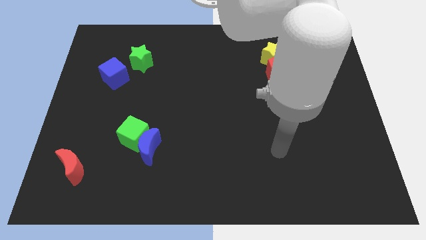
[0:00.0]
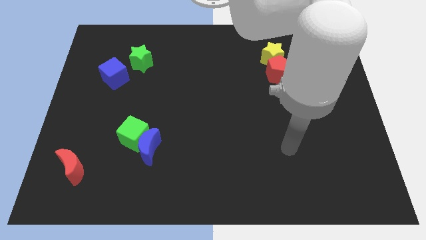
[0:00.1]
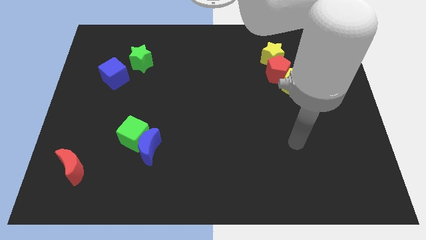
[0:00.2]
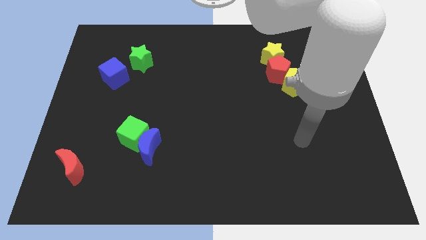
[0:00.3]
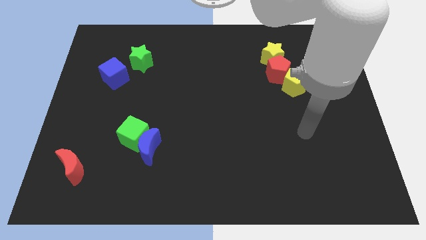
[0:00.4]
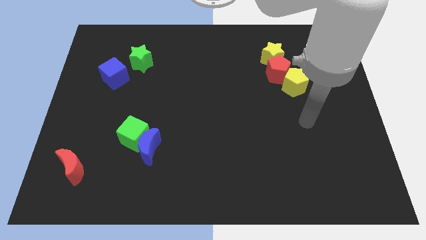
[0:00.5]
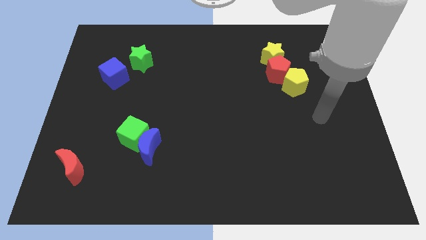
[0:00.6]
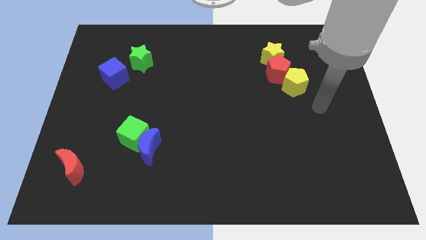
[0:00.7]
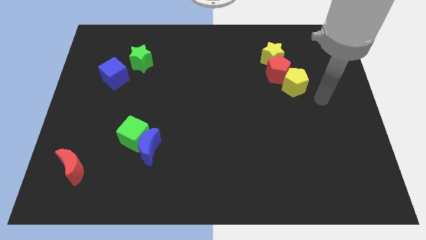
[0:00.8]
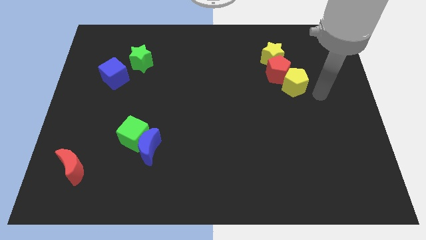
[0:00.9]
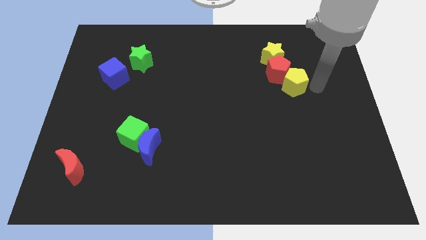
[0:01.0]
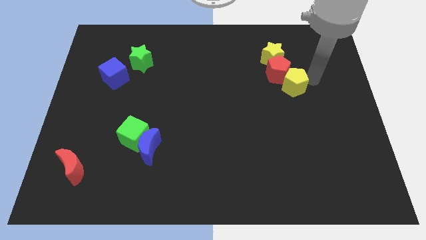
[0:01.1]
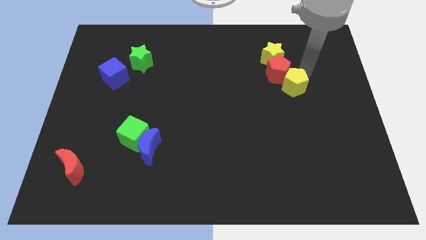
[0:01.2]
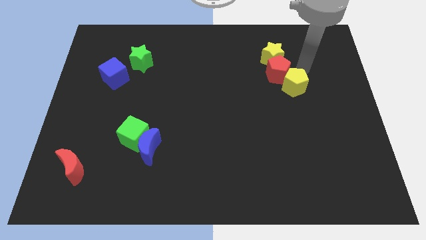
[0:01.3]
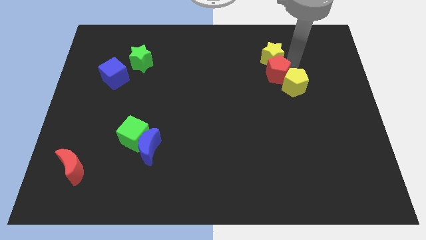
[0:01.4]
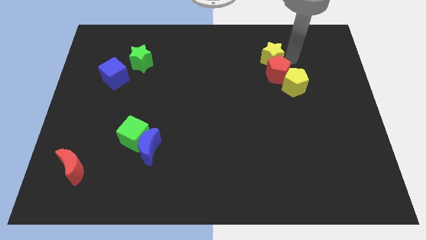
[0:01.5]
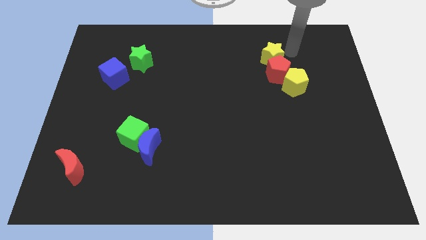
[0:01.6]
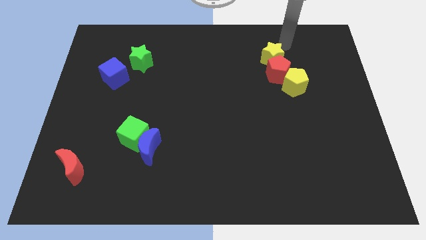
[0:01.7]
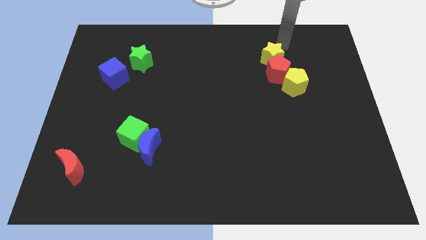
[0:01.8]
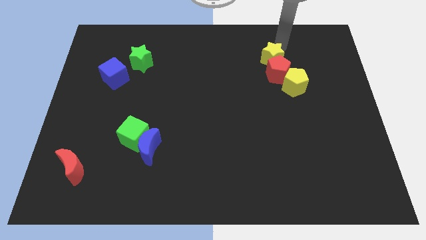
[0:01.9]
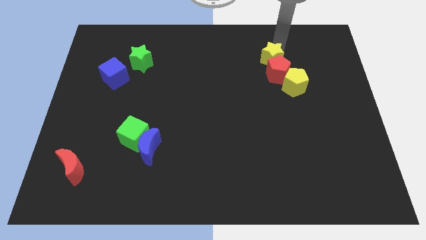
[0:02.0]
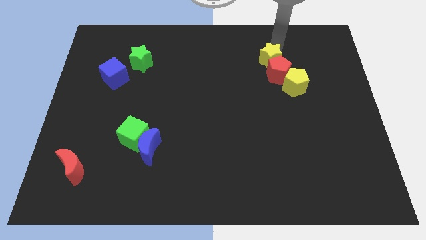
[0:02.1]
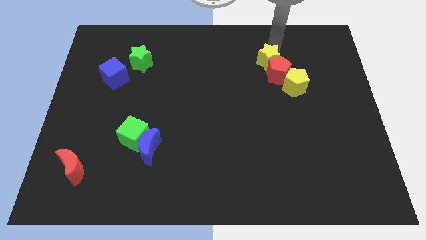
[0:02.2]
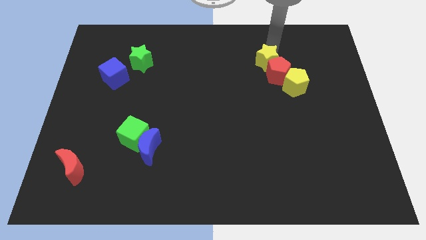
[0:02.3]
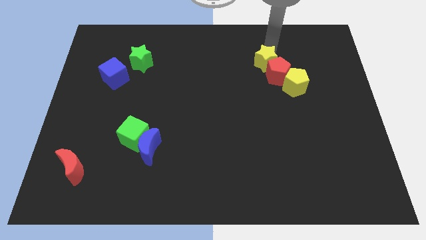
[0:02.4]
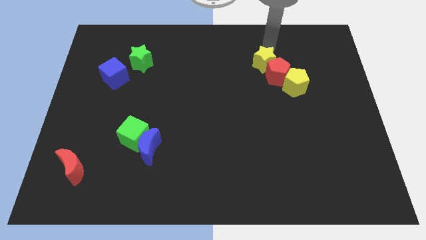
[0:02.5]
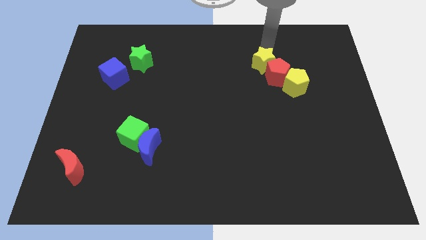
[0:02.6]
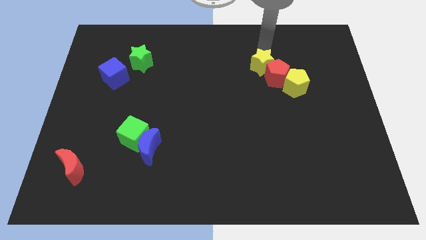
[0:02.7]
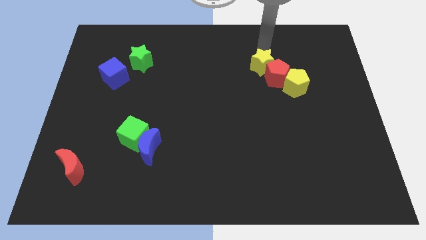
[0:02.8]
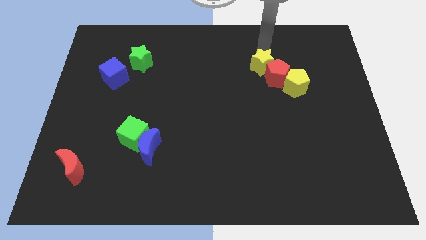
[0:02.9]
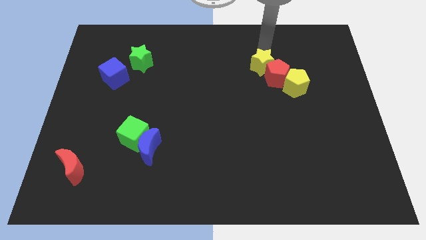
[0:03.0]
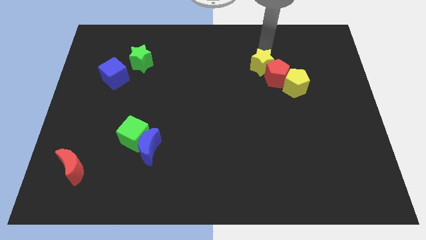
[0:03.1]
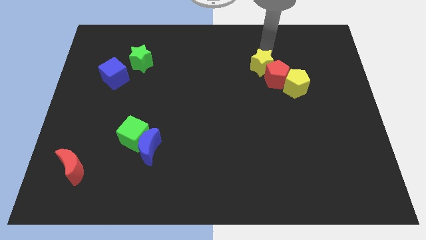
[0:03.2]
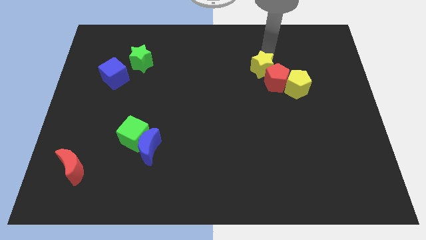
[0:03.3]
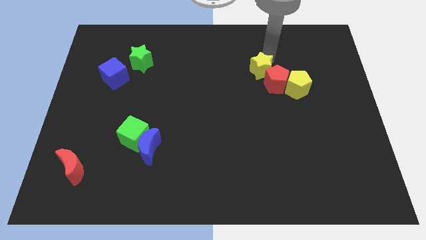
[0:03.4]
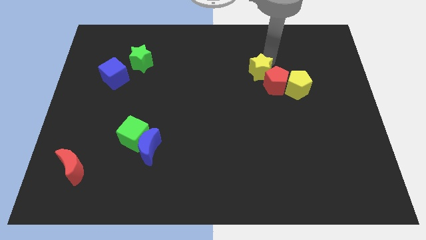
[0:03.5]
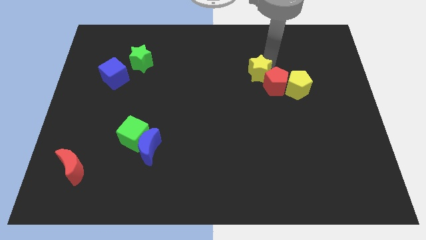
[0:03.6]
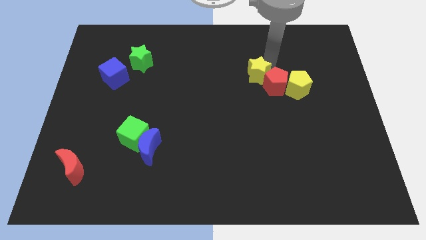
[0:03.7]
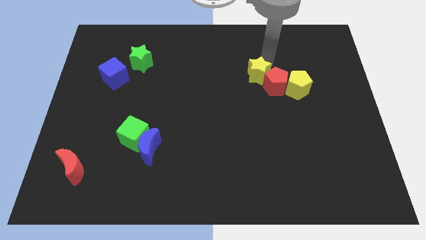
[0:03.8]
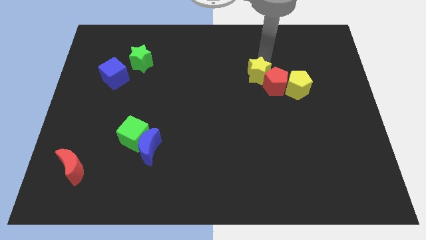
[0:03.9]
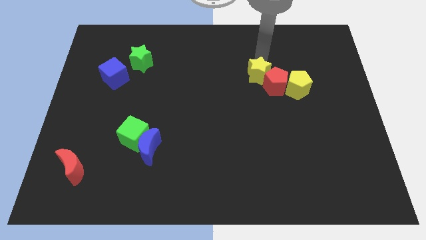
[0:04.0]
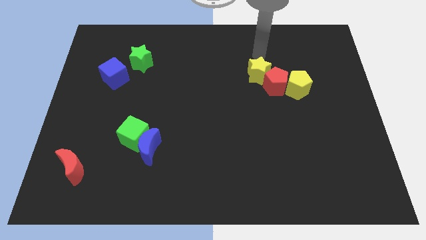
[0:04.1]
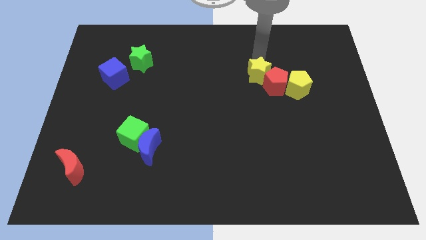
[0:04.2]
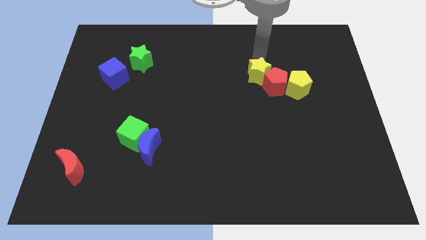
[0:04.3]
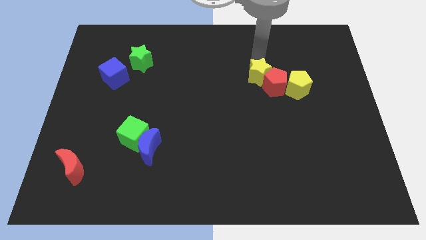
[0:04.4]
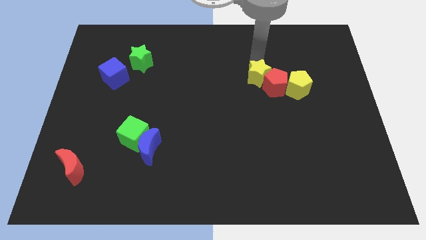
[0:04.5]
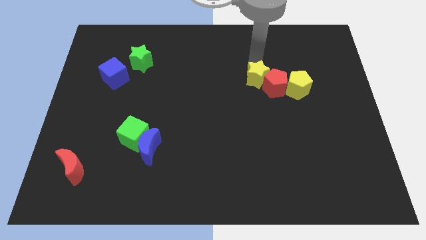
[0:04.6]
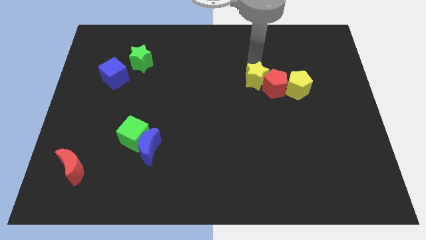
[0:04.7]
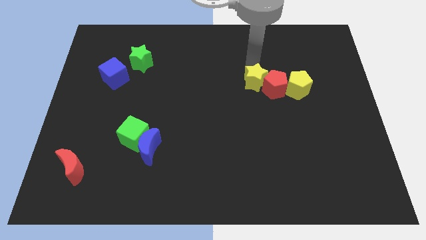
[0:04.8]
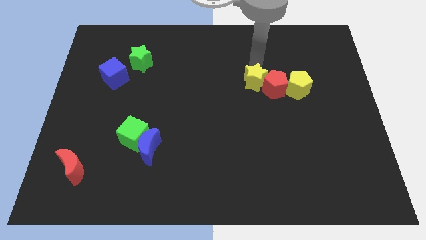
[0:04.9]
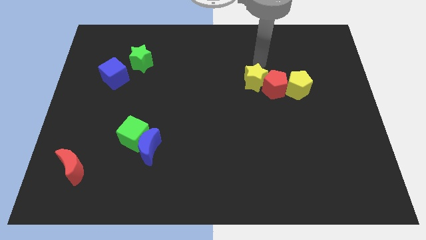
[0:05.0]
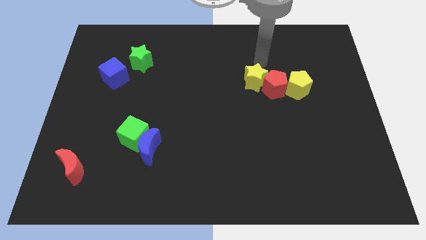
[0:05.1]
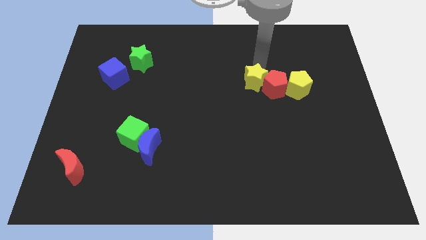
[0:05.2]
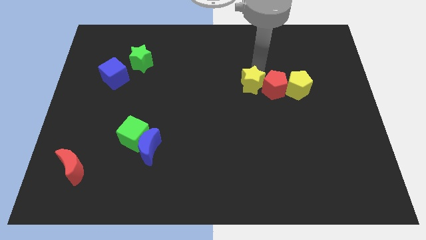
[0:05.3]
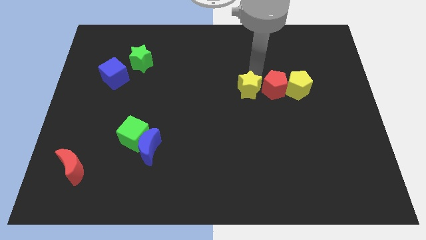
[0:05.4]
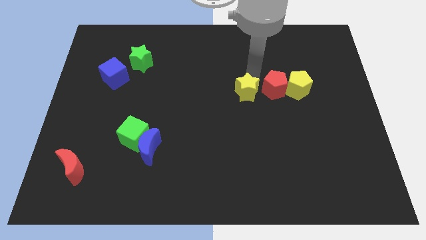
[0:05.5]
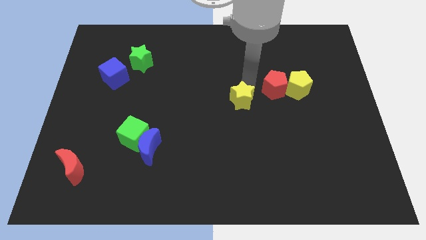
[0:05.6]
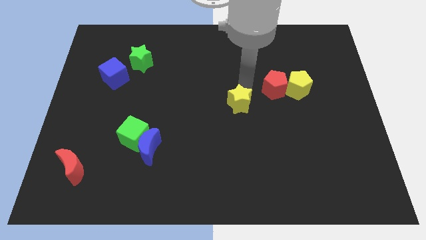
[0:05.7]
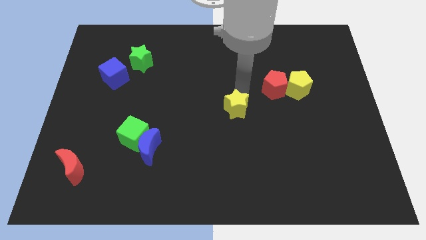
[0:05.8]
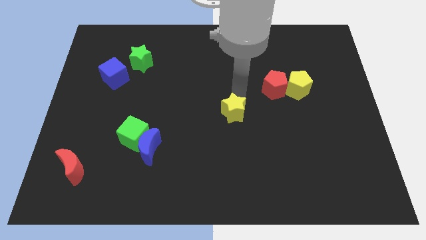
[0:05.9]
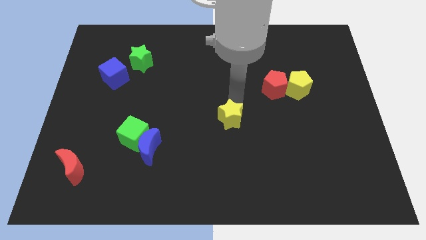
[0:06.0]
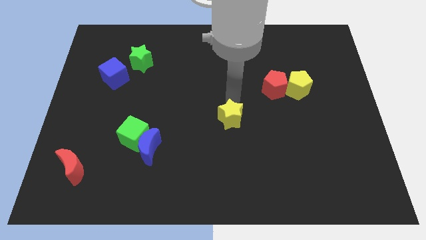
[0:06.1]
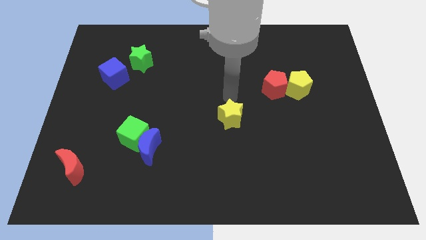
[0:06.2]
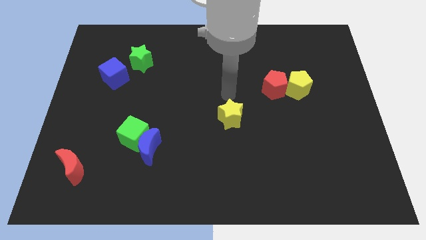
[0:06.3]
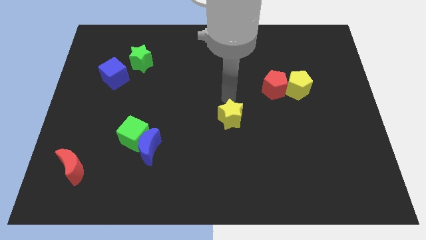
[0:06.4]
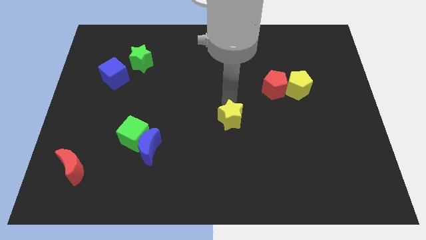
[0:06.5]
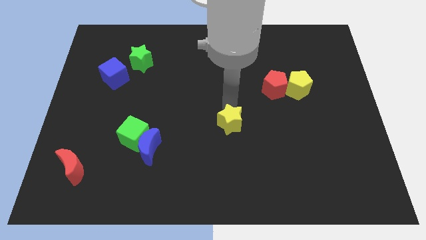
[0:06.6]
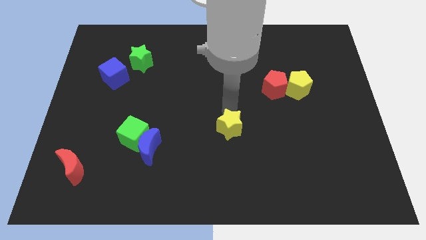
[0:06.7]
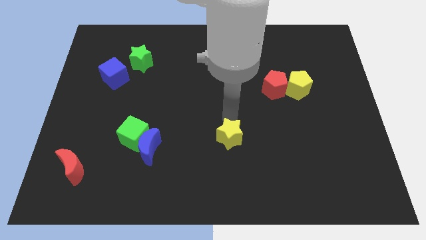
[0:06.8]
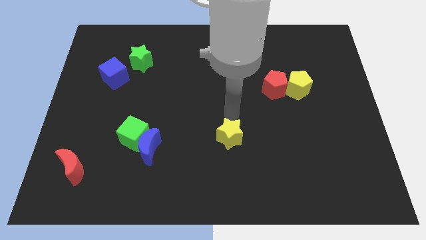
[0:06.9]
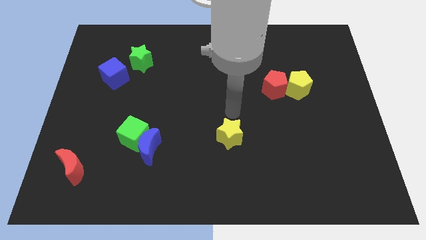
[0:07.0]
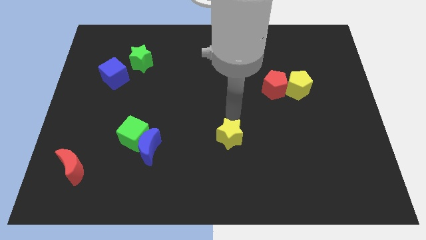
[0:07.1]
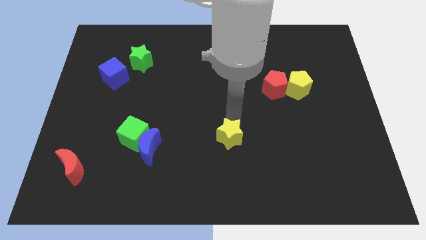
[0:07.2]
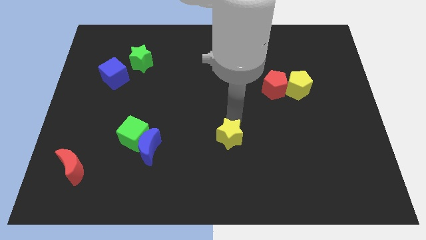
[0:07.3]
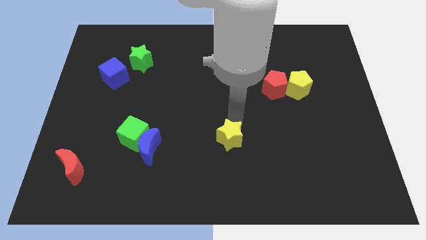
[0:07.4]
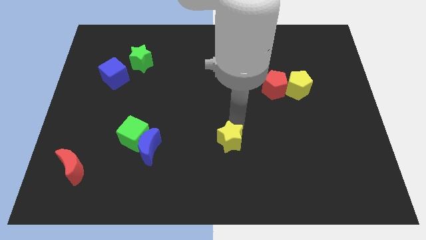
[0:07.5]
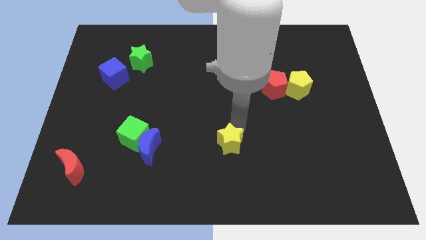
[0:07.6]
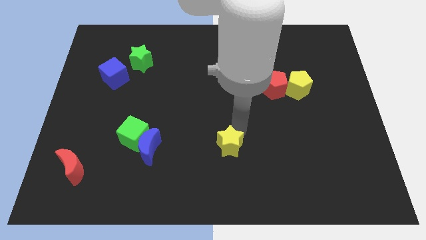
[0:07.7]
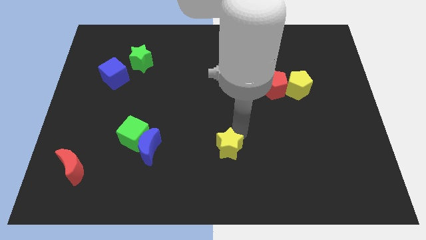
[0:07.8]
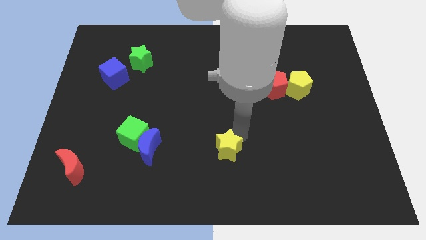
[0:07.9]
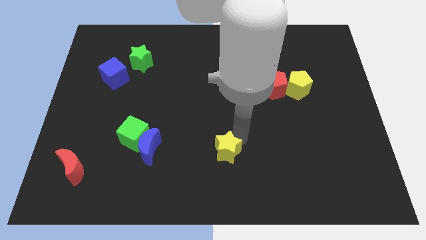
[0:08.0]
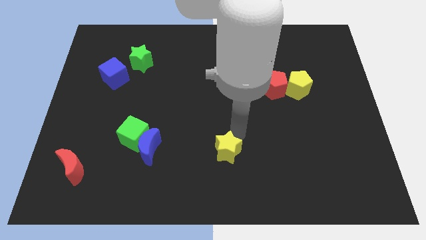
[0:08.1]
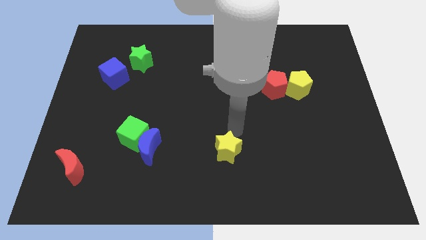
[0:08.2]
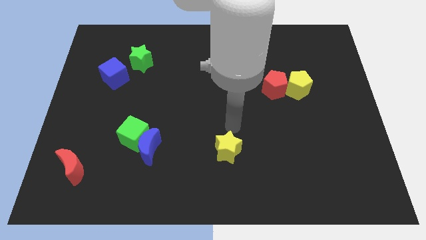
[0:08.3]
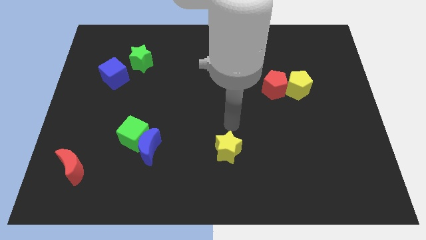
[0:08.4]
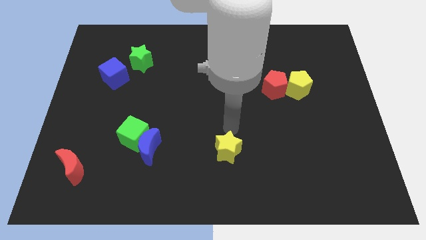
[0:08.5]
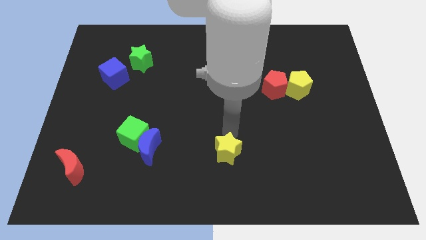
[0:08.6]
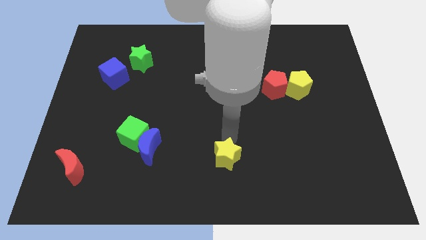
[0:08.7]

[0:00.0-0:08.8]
move the yellow star to the bottom
